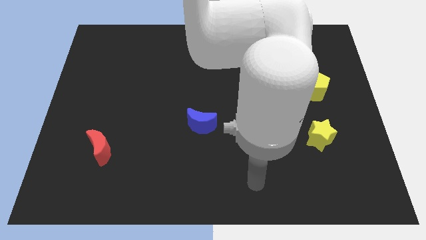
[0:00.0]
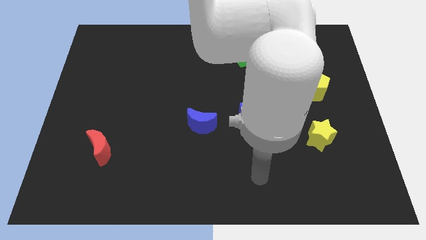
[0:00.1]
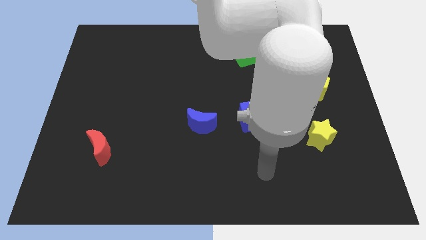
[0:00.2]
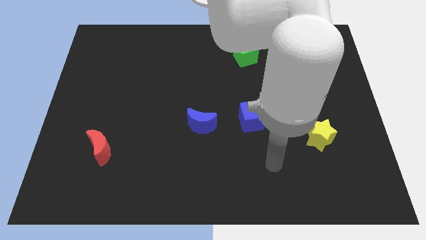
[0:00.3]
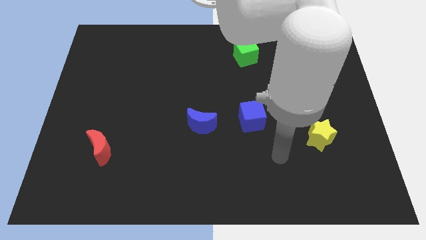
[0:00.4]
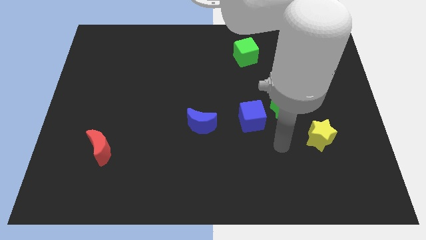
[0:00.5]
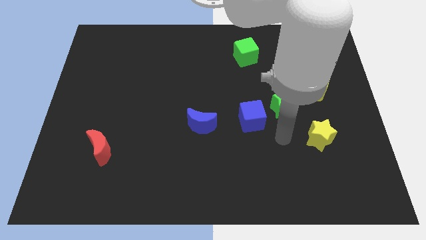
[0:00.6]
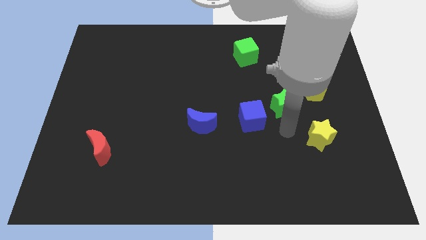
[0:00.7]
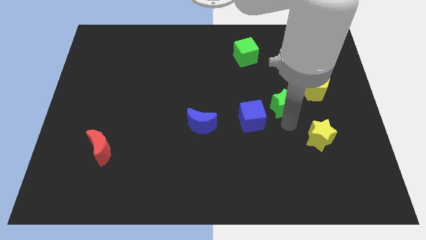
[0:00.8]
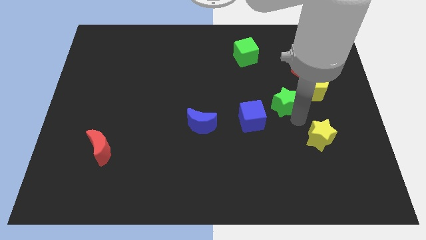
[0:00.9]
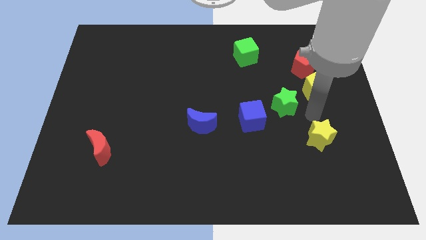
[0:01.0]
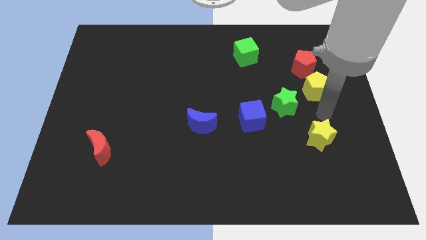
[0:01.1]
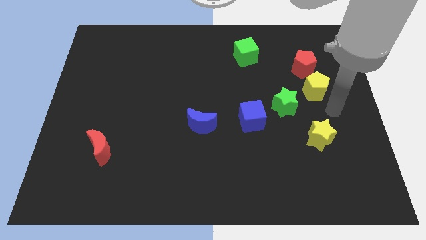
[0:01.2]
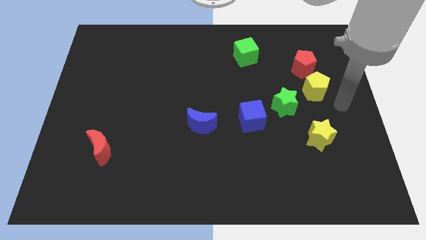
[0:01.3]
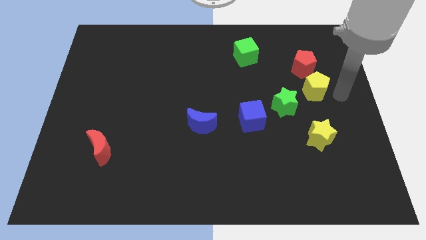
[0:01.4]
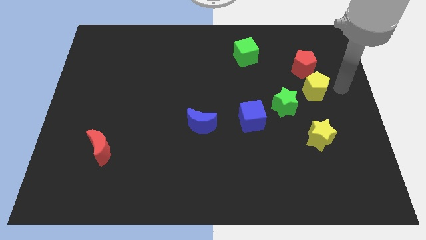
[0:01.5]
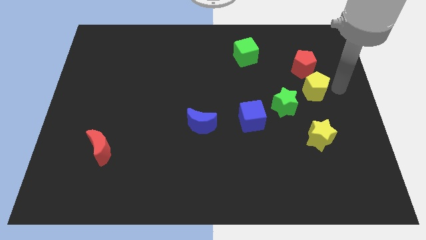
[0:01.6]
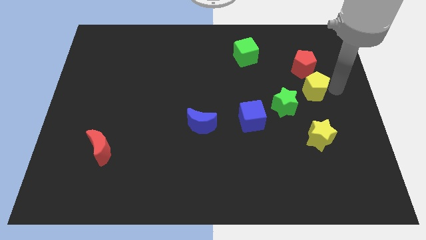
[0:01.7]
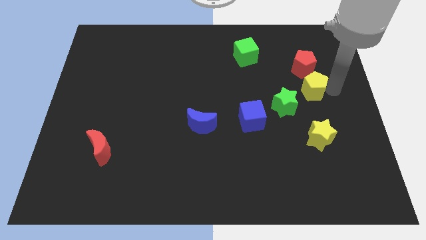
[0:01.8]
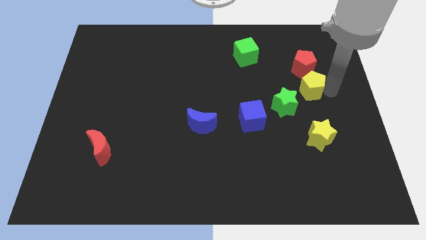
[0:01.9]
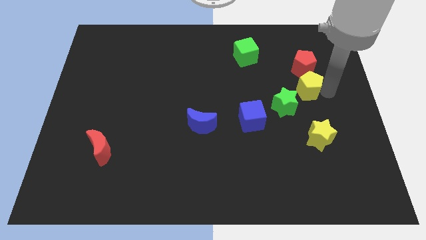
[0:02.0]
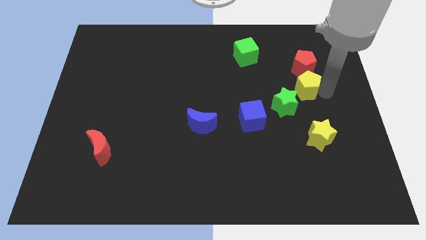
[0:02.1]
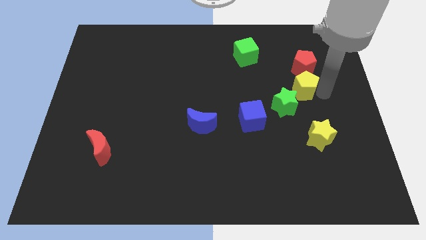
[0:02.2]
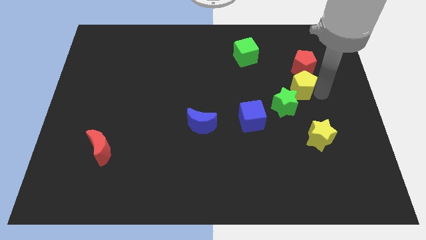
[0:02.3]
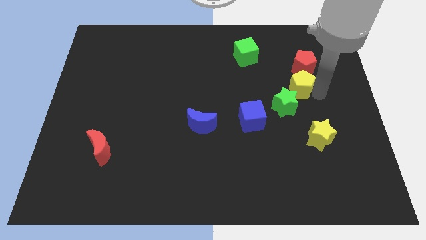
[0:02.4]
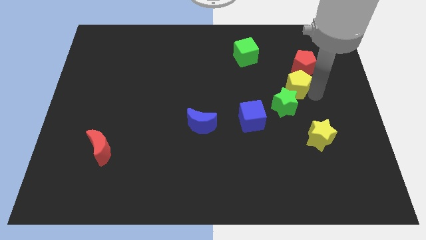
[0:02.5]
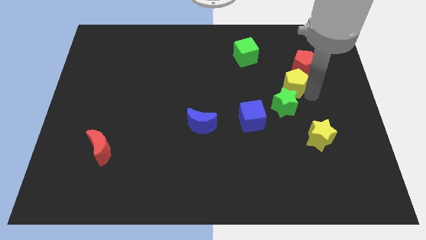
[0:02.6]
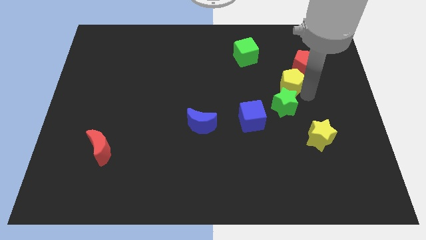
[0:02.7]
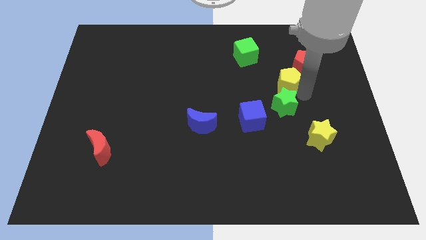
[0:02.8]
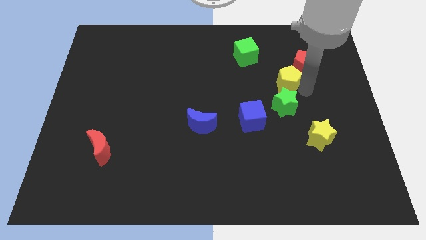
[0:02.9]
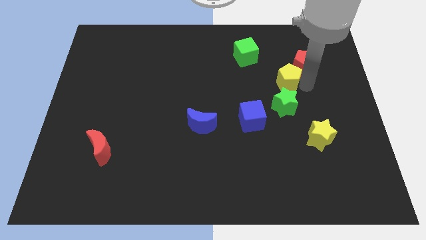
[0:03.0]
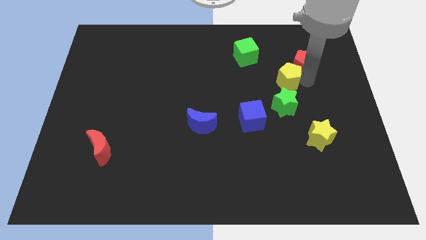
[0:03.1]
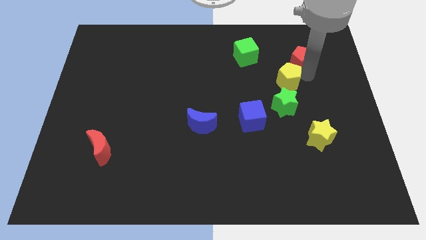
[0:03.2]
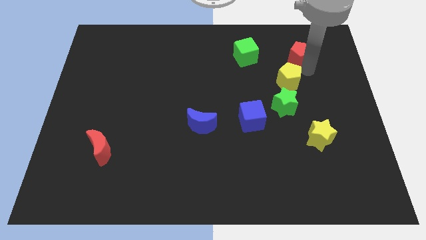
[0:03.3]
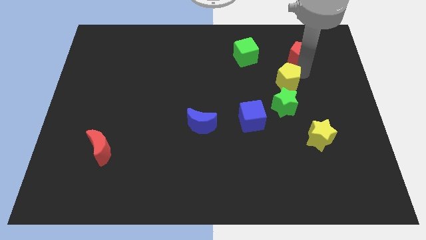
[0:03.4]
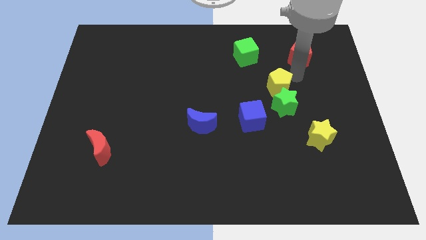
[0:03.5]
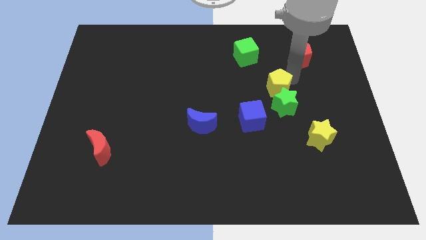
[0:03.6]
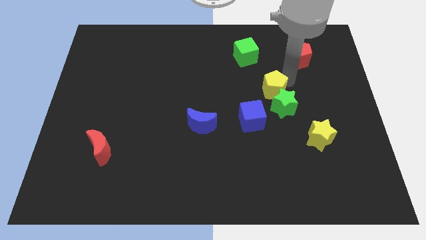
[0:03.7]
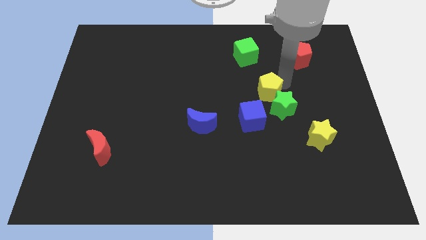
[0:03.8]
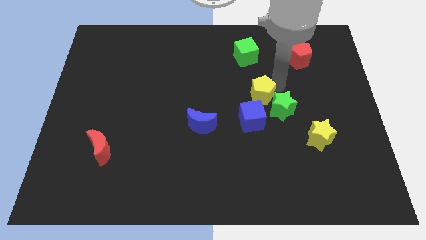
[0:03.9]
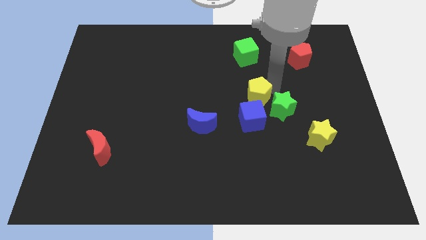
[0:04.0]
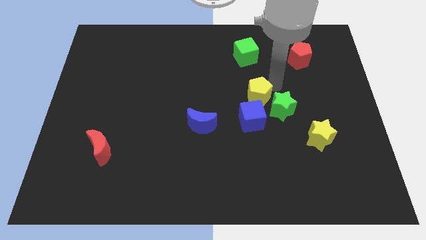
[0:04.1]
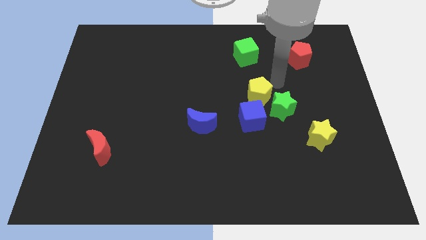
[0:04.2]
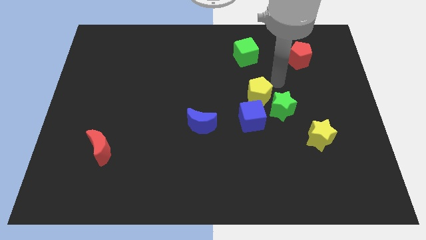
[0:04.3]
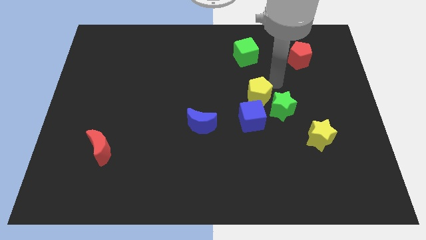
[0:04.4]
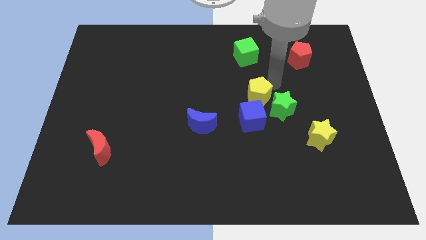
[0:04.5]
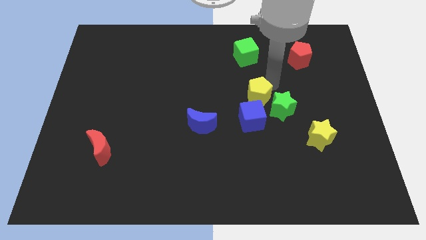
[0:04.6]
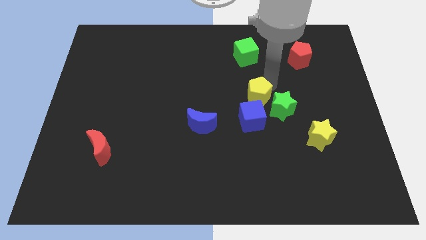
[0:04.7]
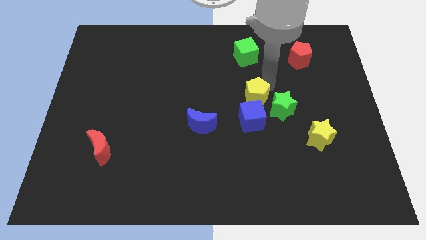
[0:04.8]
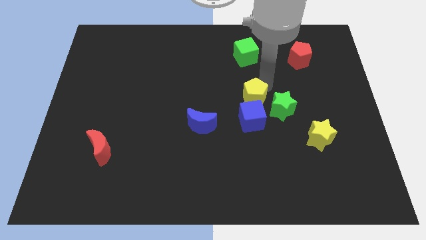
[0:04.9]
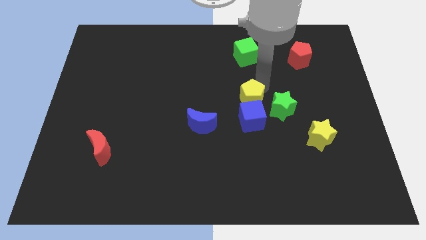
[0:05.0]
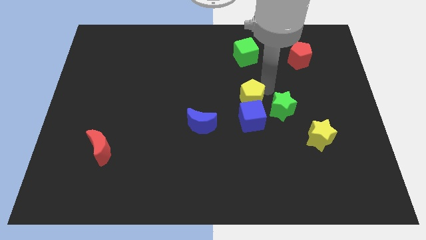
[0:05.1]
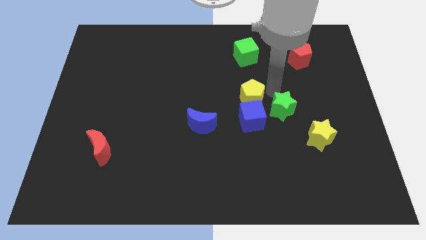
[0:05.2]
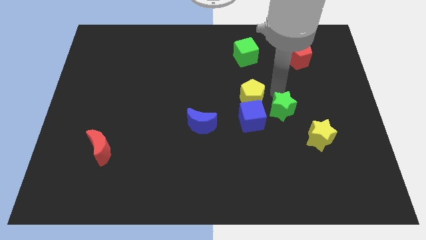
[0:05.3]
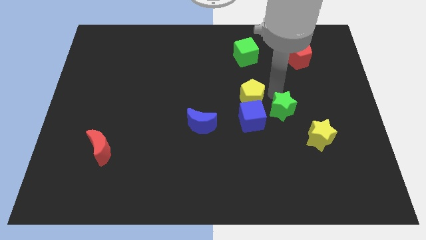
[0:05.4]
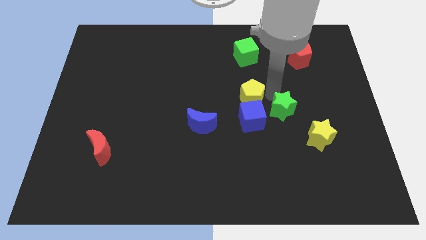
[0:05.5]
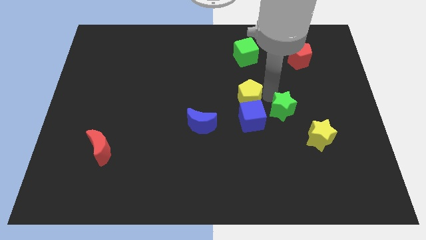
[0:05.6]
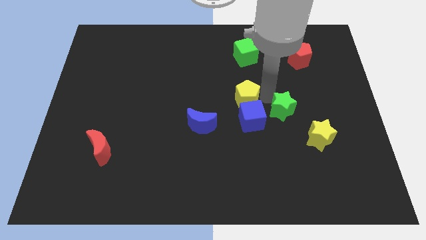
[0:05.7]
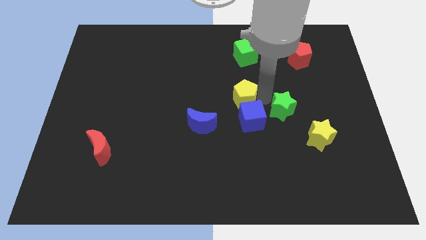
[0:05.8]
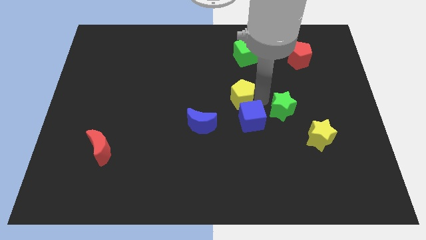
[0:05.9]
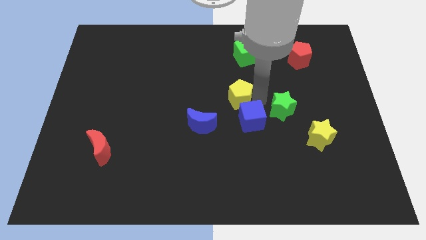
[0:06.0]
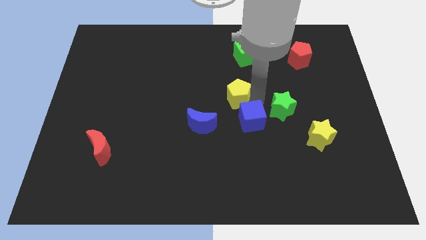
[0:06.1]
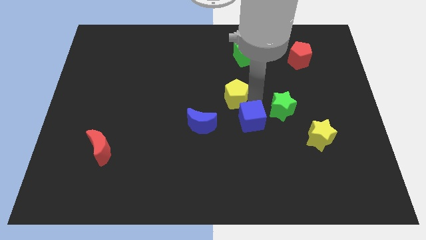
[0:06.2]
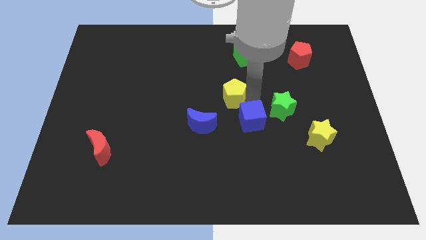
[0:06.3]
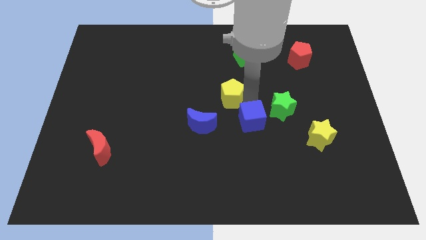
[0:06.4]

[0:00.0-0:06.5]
push the yellow pentagon to the left

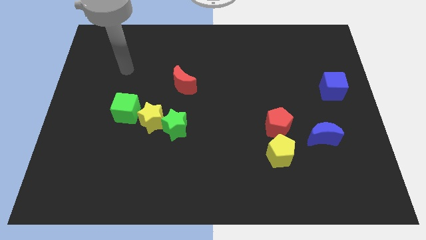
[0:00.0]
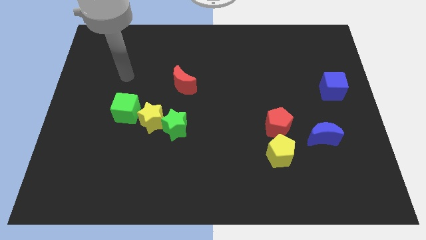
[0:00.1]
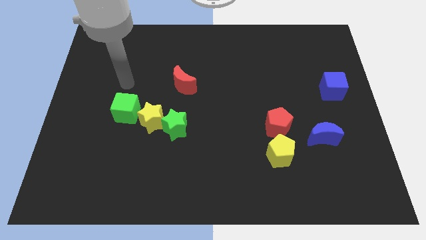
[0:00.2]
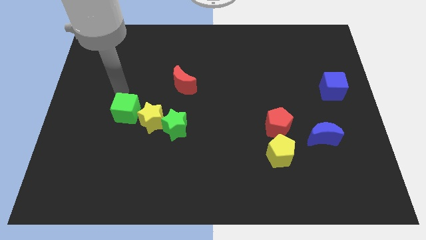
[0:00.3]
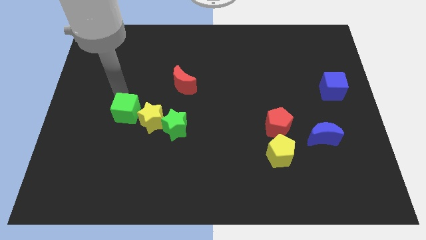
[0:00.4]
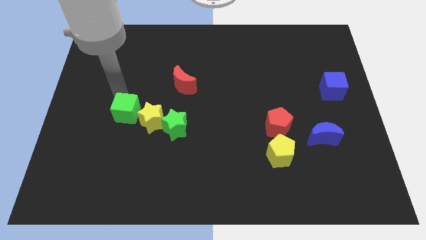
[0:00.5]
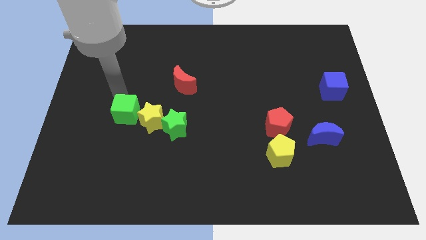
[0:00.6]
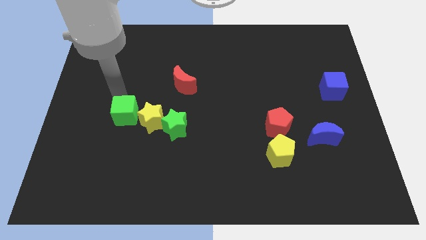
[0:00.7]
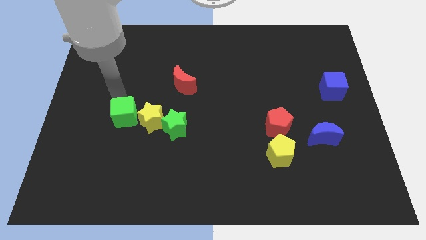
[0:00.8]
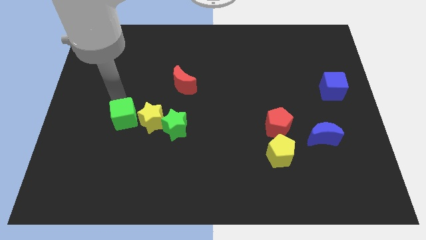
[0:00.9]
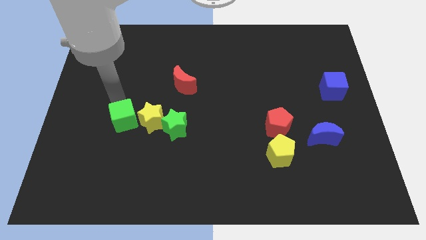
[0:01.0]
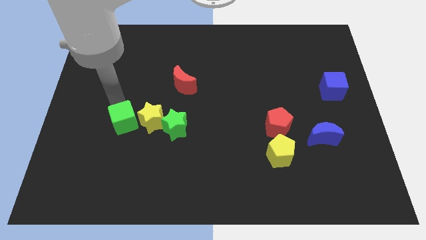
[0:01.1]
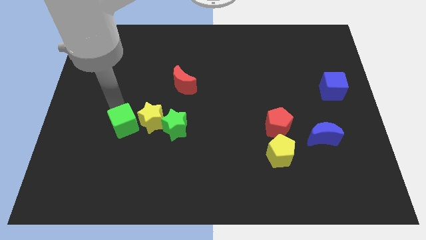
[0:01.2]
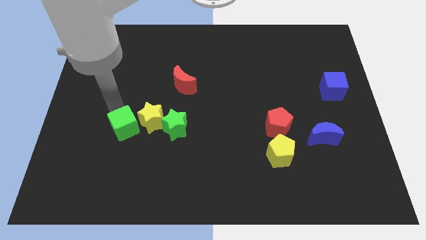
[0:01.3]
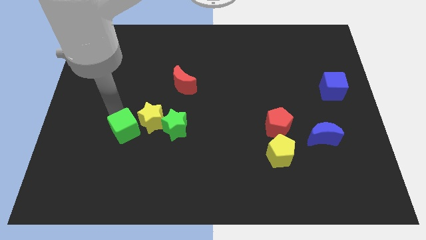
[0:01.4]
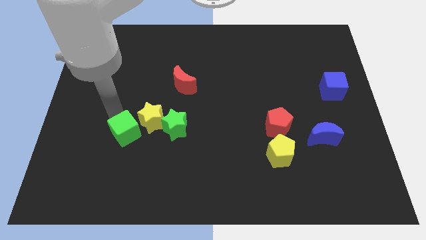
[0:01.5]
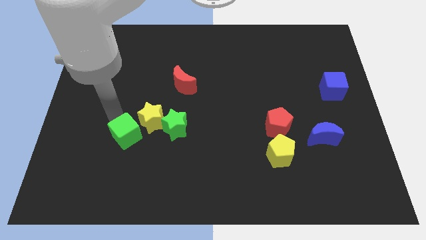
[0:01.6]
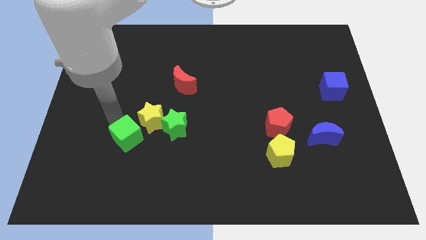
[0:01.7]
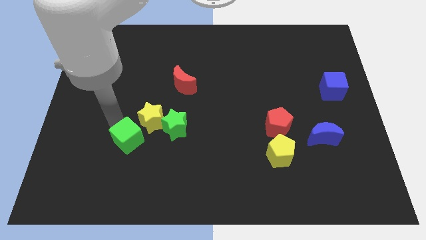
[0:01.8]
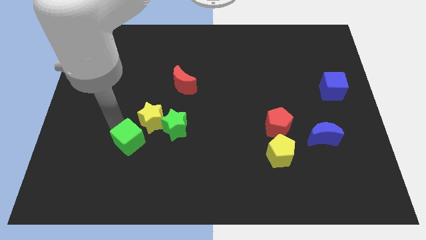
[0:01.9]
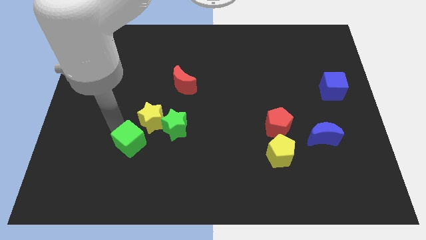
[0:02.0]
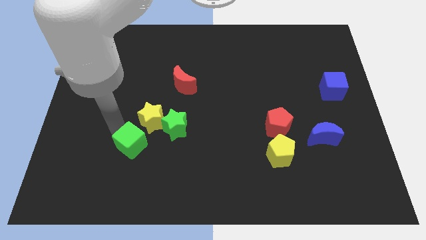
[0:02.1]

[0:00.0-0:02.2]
slightly push the green cube down and then right
